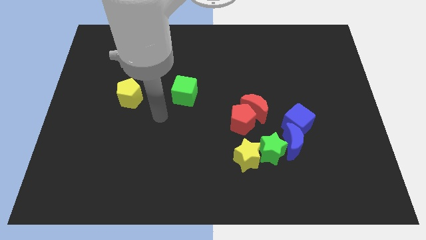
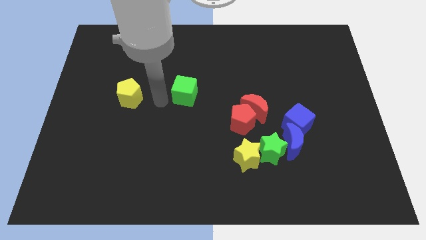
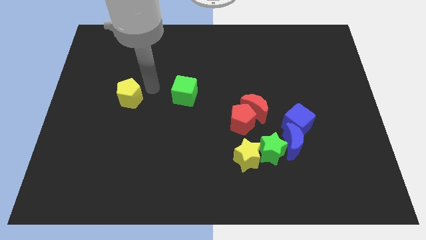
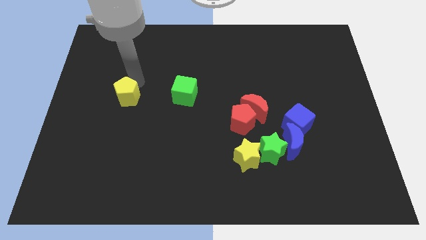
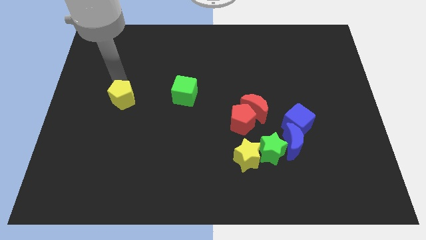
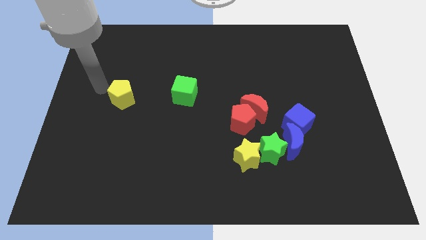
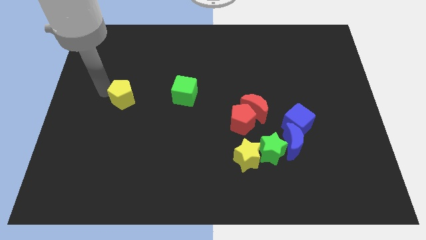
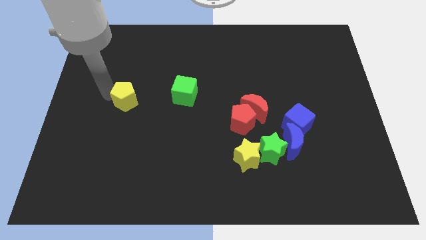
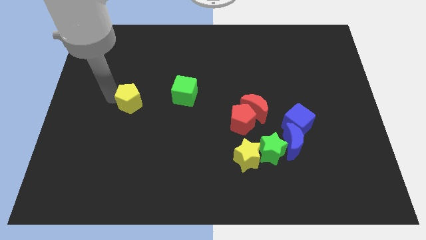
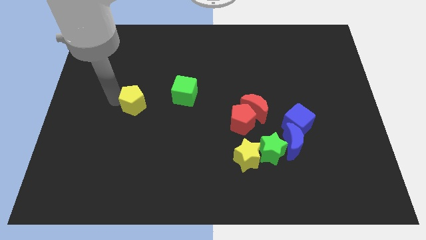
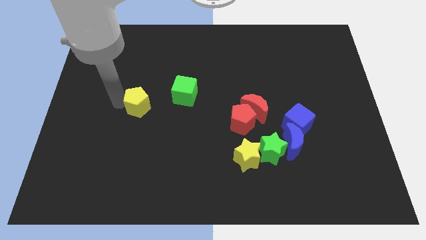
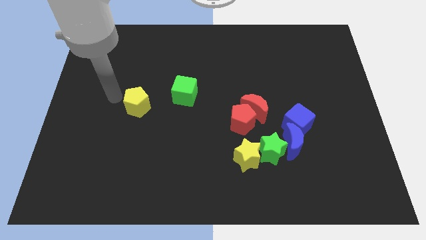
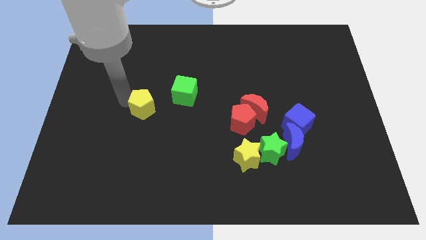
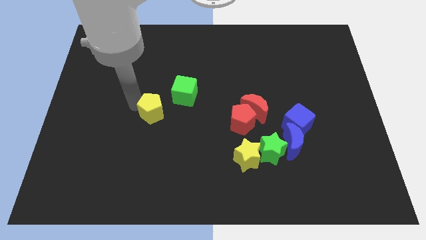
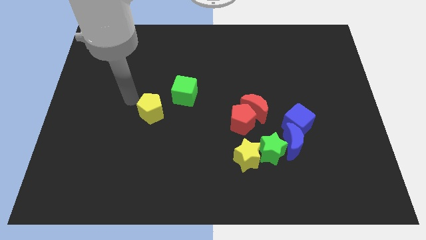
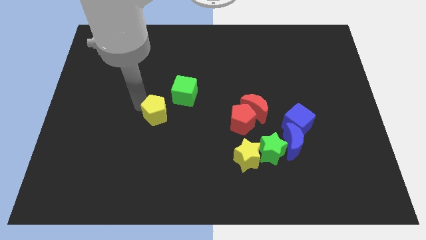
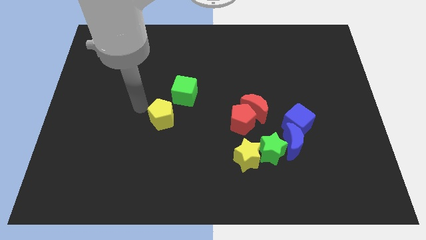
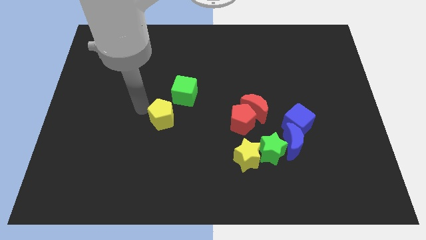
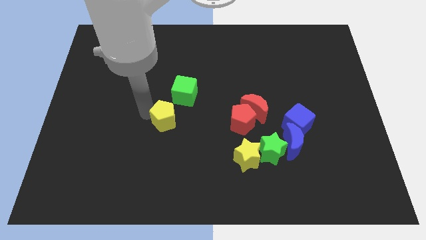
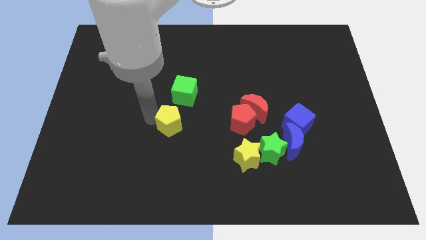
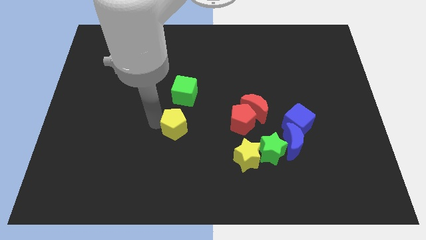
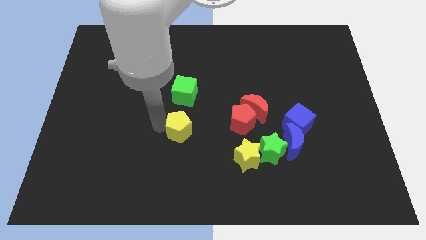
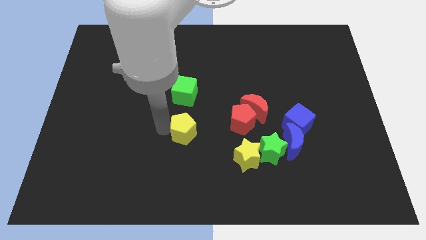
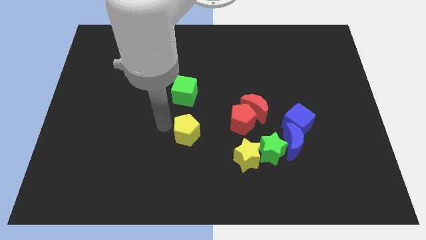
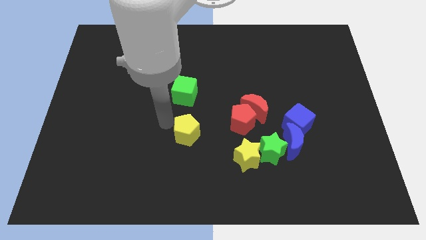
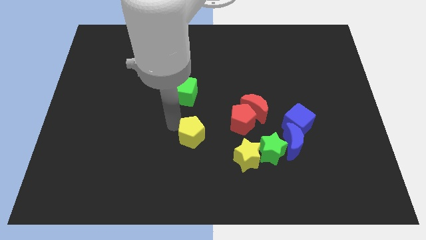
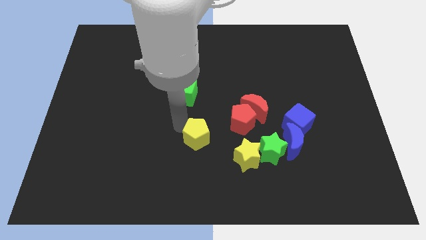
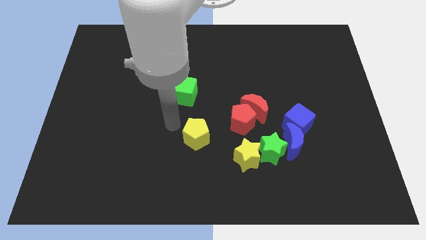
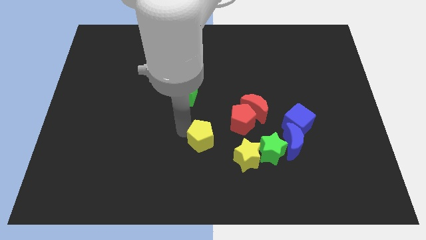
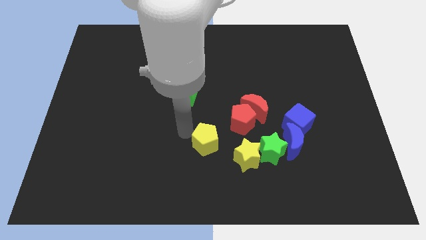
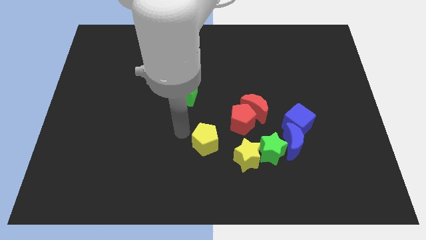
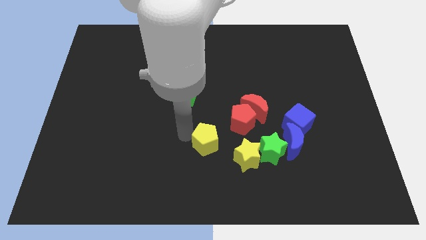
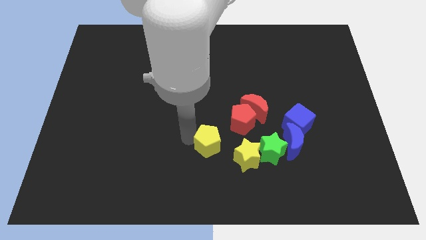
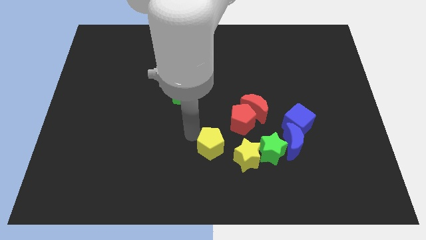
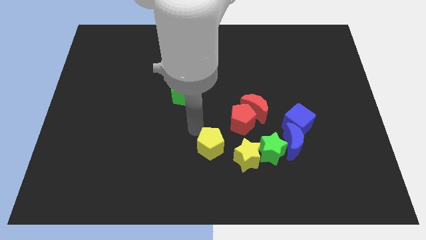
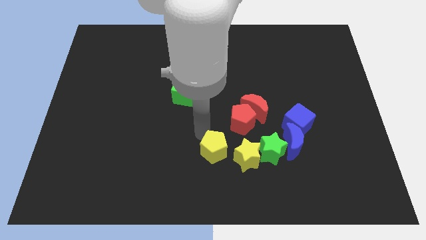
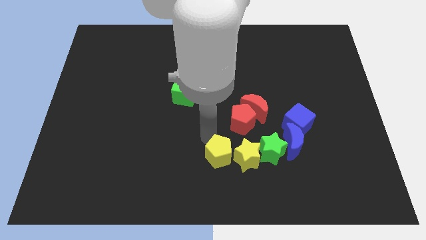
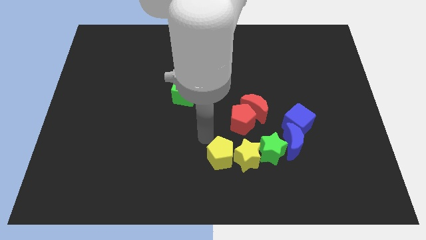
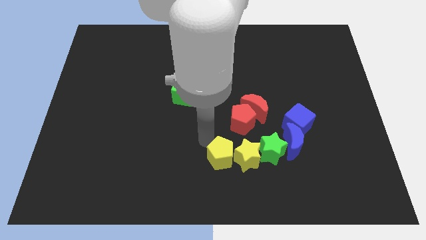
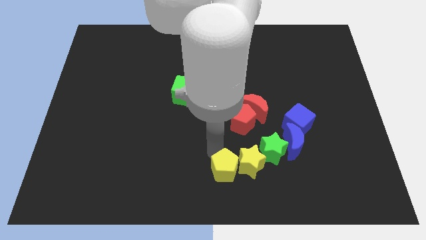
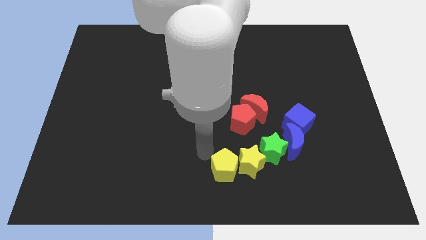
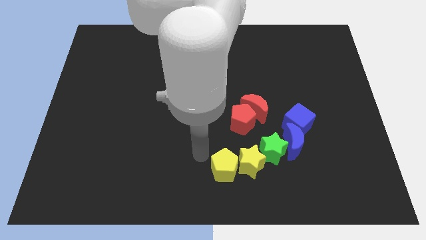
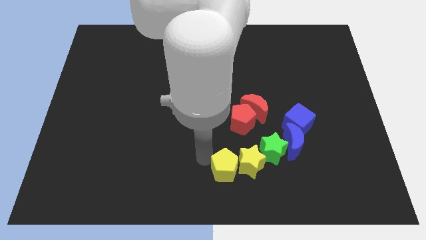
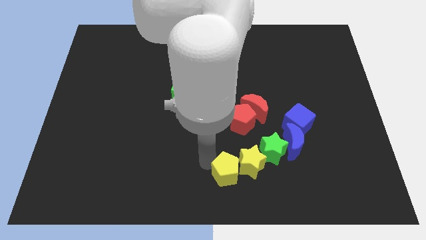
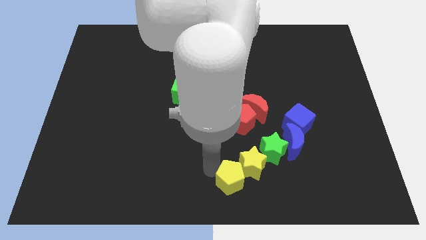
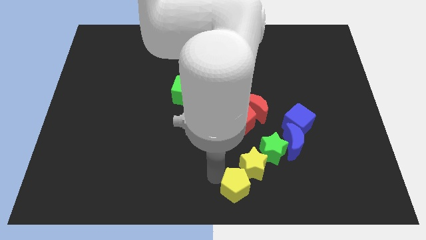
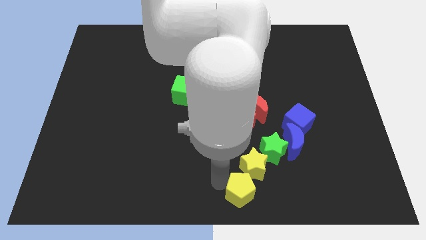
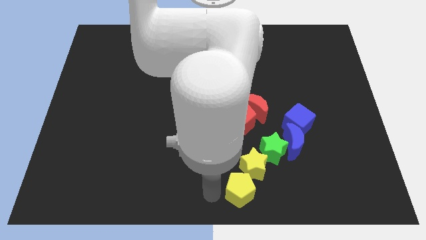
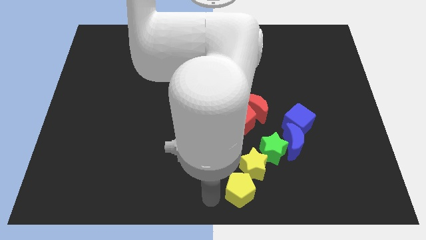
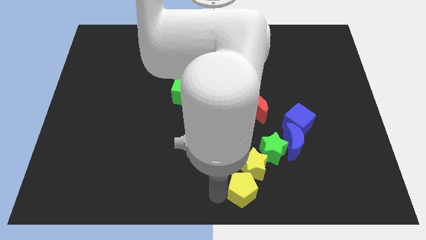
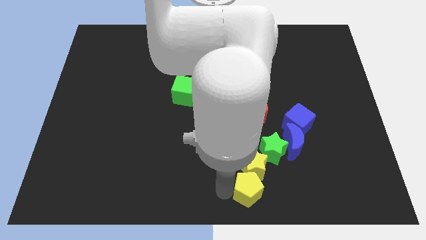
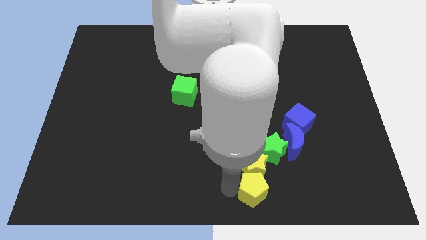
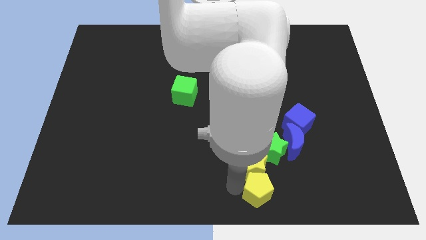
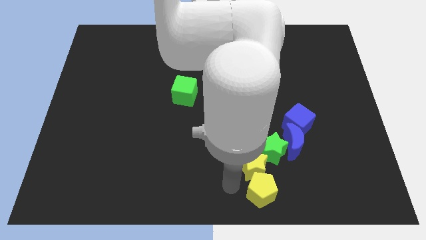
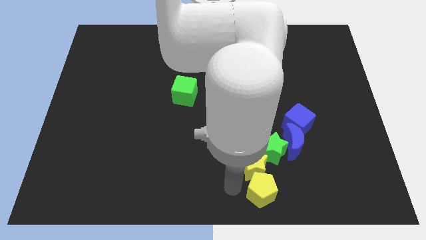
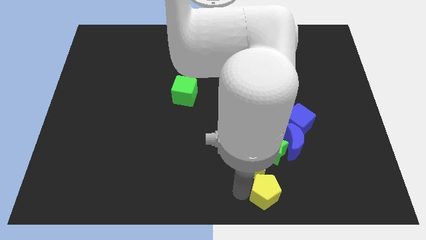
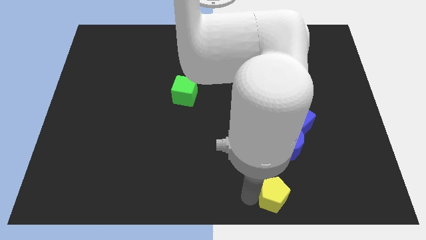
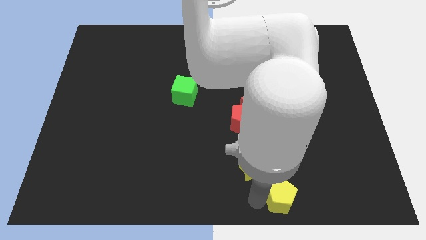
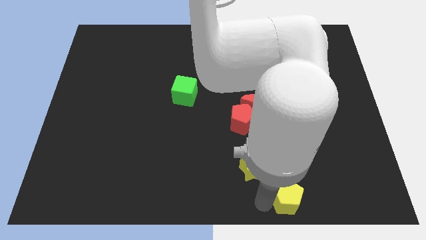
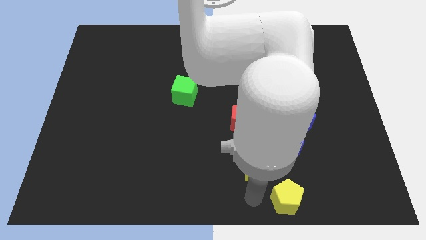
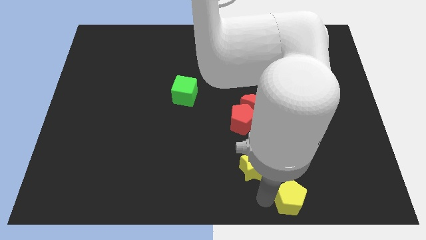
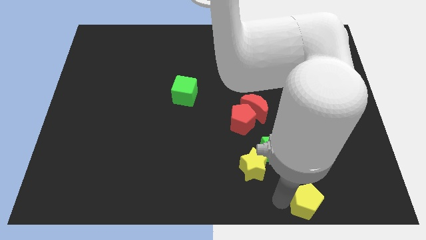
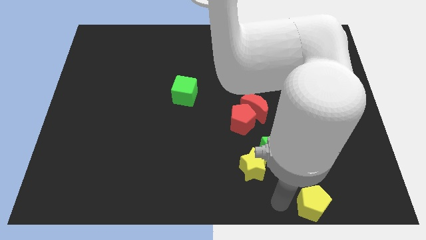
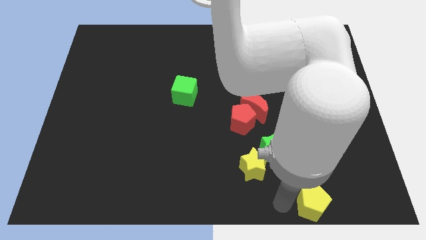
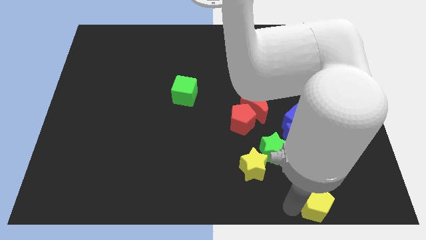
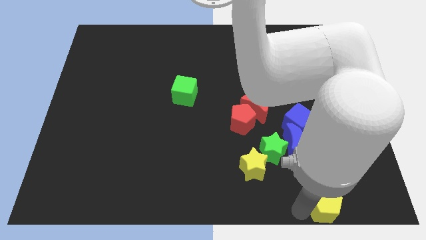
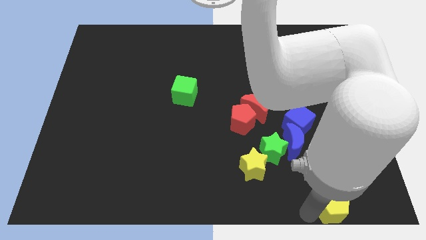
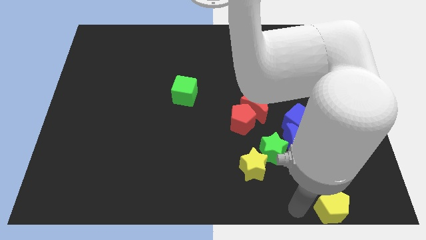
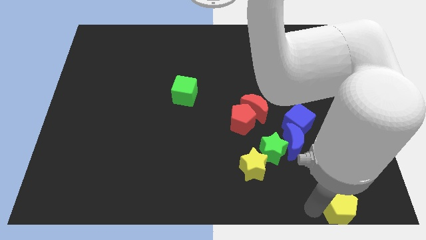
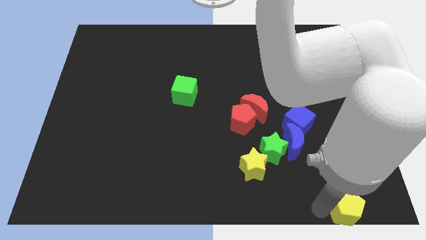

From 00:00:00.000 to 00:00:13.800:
put the yellow pentagon to the bottom right of the board
